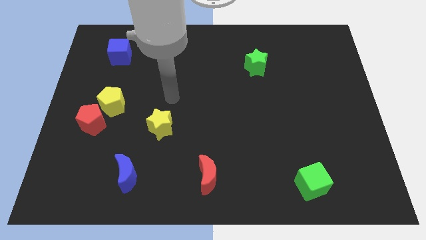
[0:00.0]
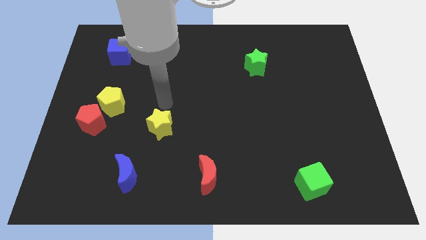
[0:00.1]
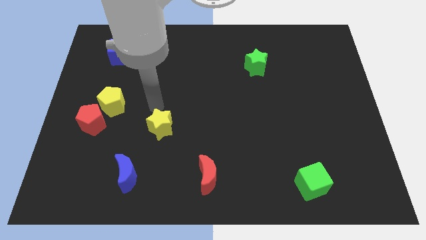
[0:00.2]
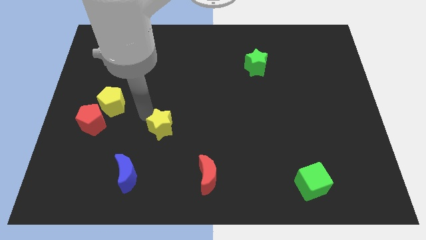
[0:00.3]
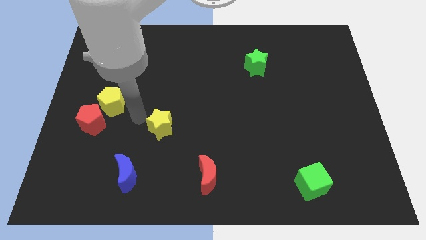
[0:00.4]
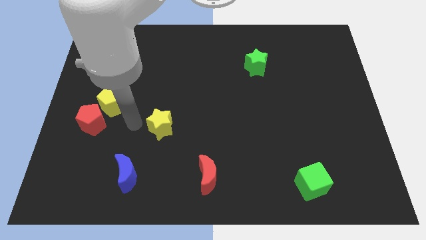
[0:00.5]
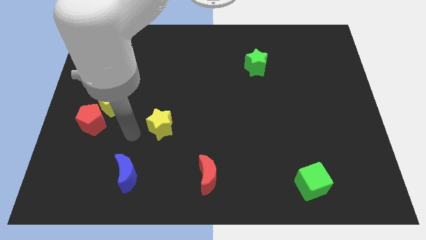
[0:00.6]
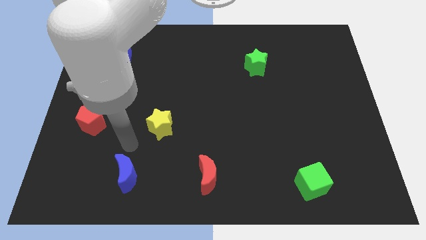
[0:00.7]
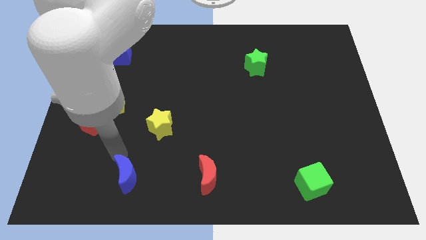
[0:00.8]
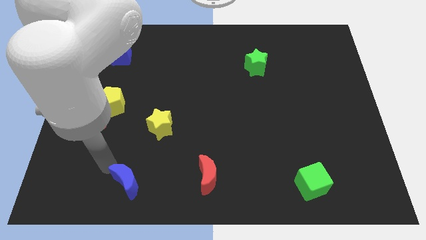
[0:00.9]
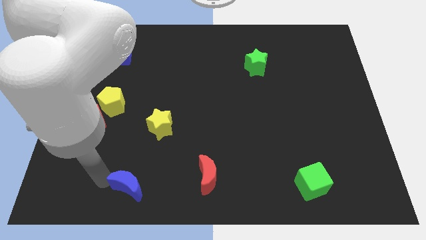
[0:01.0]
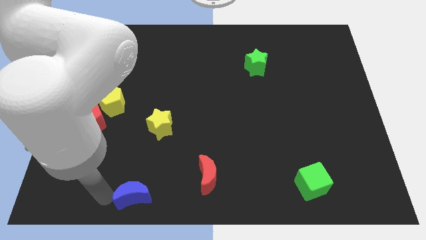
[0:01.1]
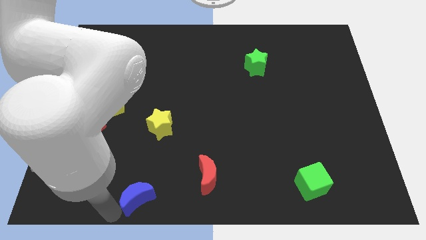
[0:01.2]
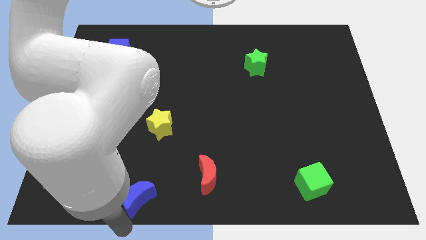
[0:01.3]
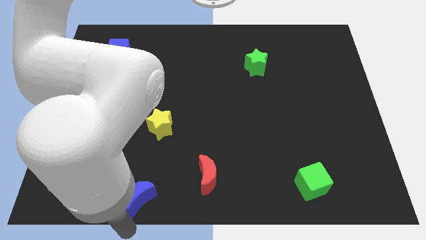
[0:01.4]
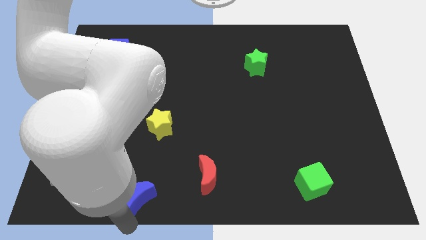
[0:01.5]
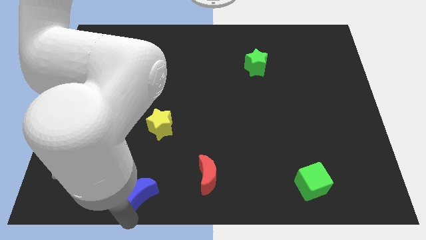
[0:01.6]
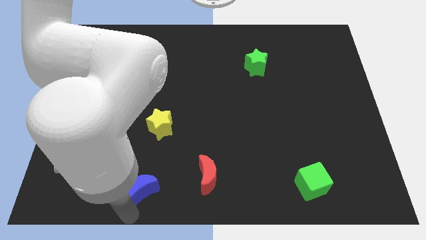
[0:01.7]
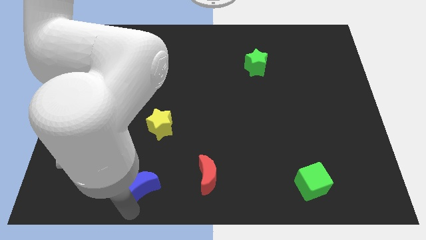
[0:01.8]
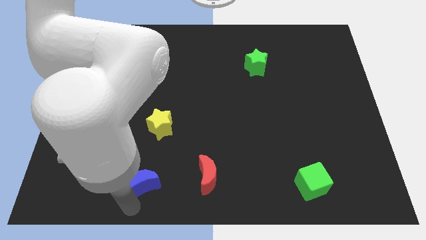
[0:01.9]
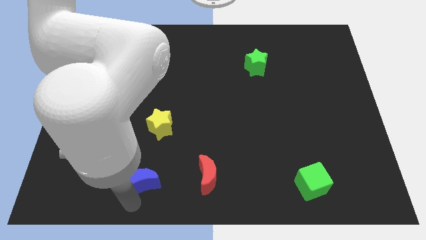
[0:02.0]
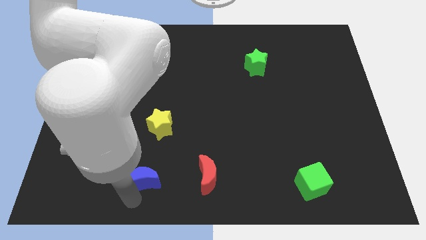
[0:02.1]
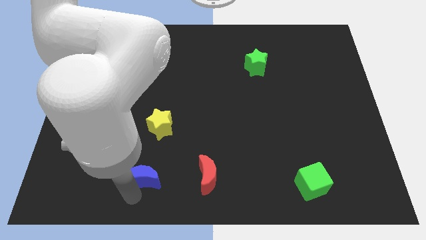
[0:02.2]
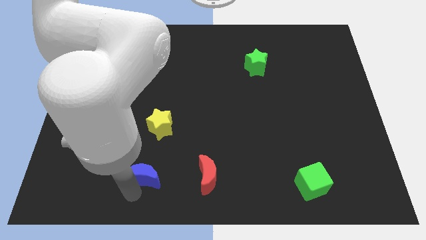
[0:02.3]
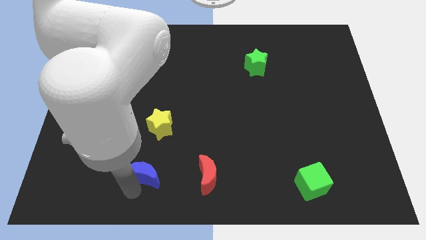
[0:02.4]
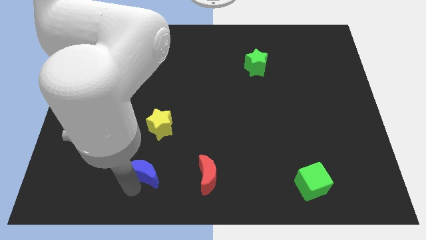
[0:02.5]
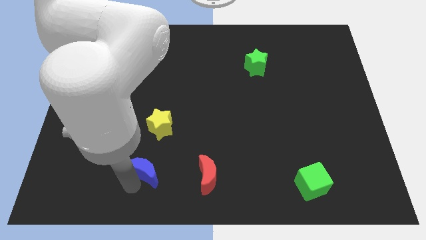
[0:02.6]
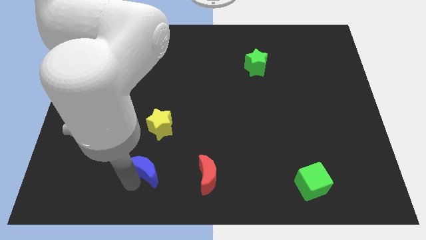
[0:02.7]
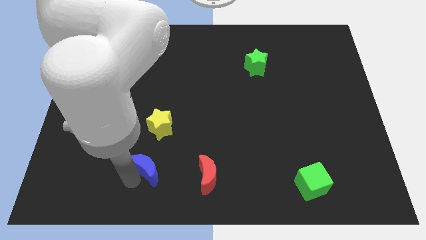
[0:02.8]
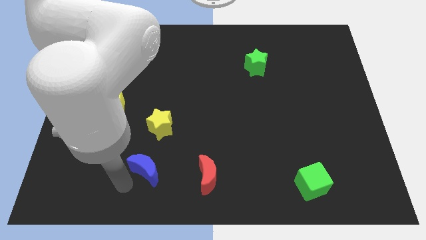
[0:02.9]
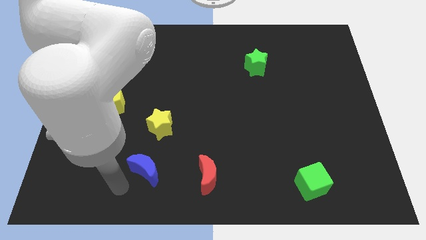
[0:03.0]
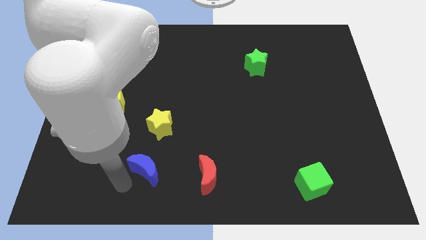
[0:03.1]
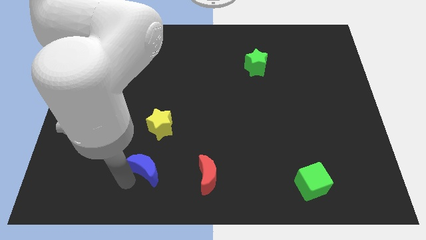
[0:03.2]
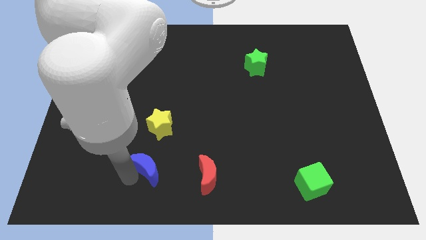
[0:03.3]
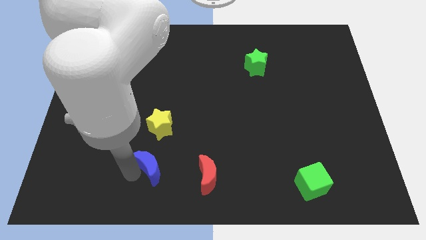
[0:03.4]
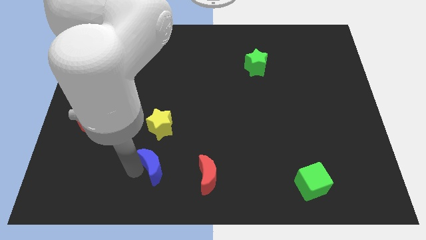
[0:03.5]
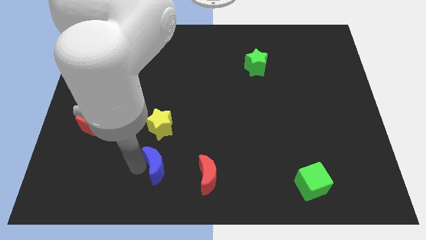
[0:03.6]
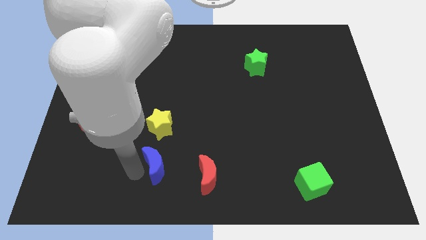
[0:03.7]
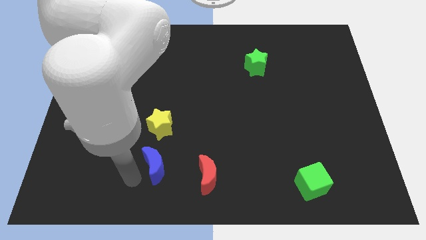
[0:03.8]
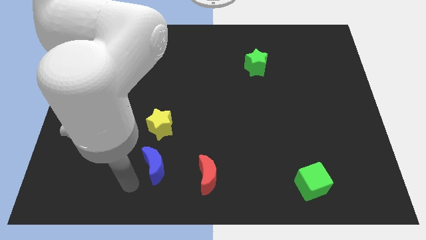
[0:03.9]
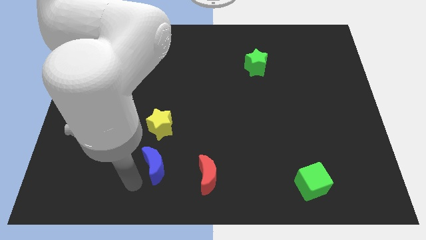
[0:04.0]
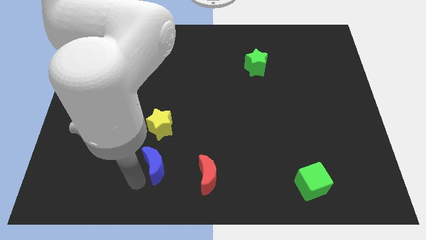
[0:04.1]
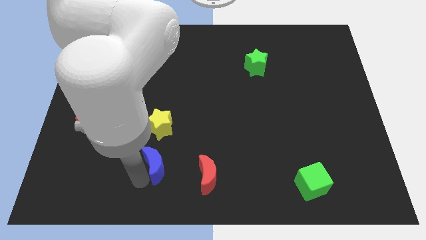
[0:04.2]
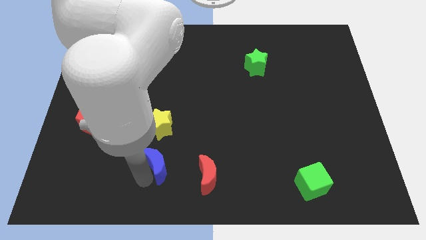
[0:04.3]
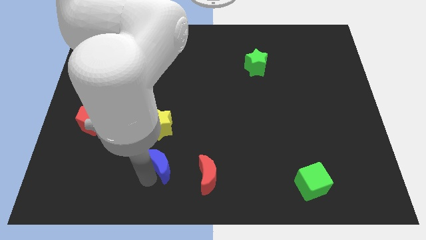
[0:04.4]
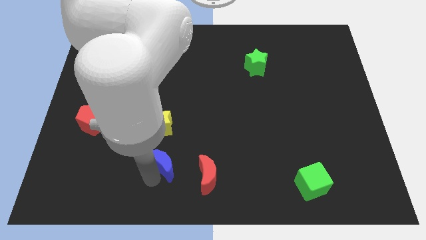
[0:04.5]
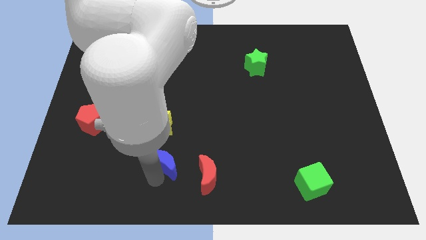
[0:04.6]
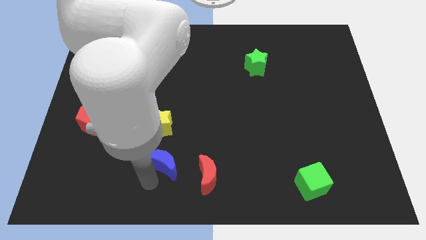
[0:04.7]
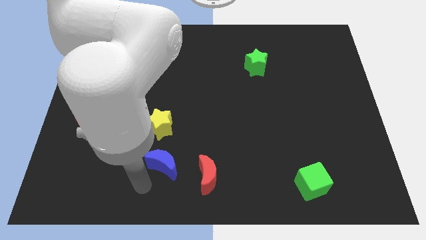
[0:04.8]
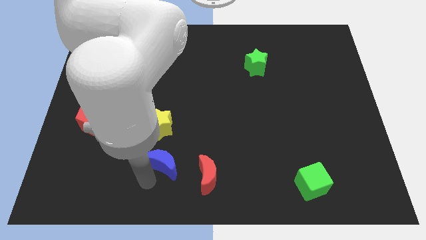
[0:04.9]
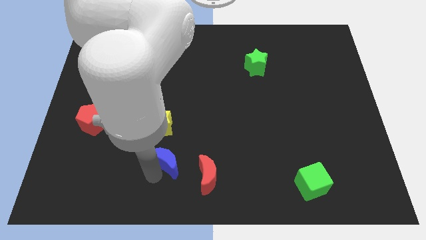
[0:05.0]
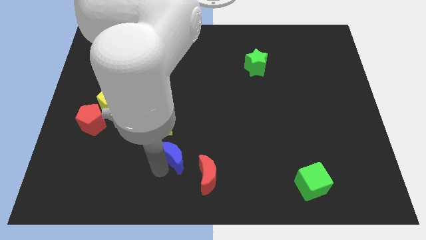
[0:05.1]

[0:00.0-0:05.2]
move the blue moon to the bottom right of the yellow star

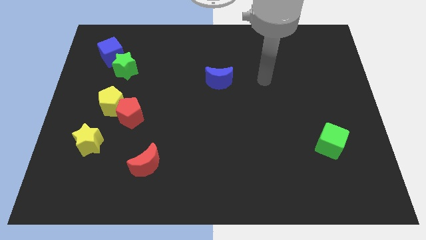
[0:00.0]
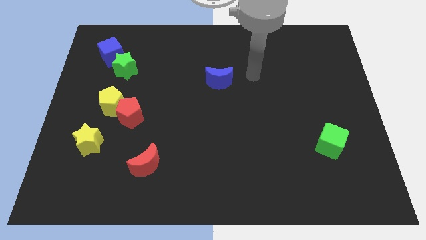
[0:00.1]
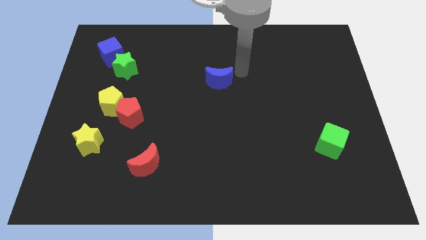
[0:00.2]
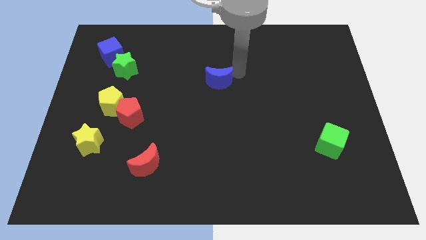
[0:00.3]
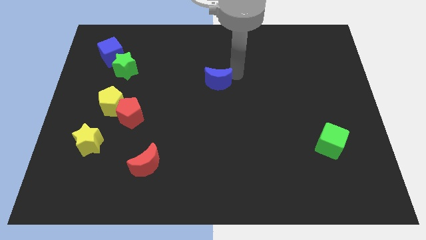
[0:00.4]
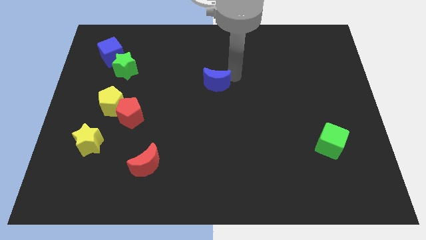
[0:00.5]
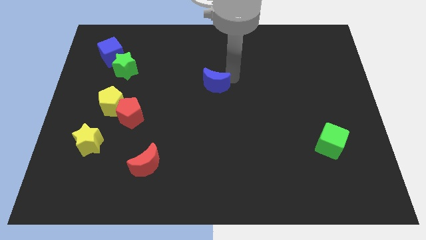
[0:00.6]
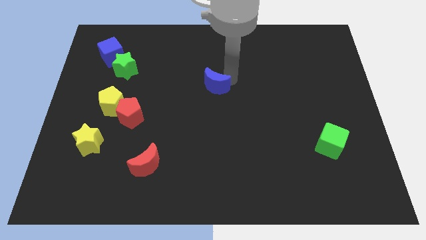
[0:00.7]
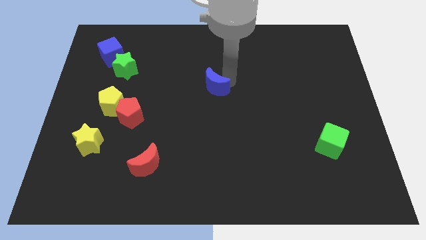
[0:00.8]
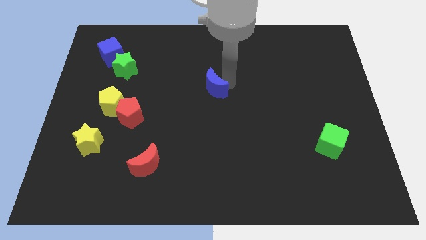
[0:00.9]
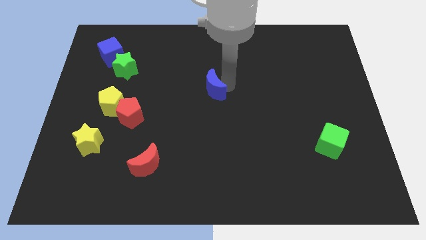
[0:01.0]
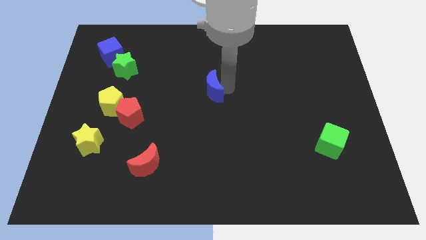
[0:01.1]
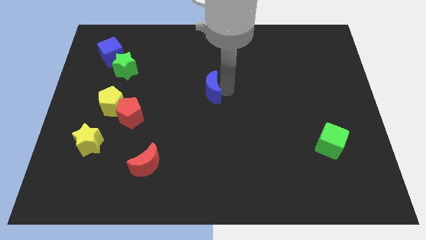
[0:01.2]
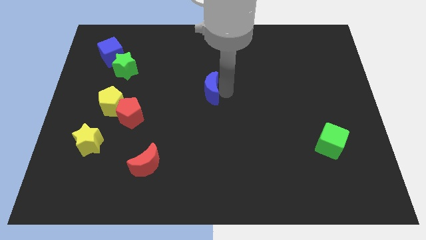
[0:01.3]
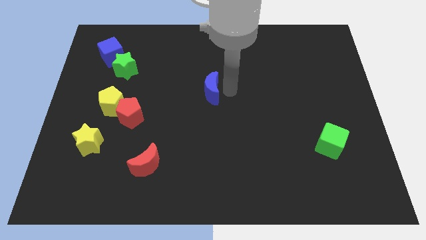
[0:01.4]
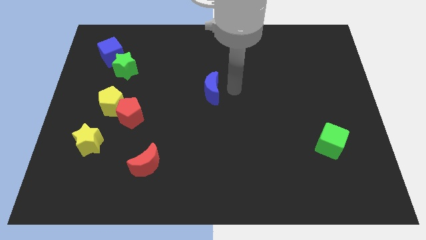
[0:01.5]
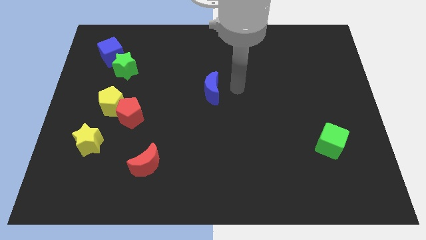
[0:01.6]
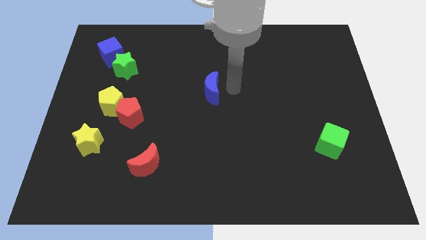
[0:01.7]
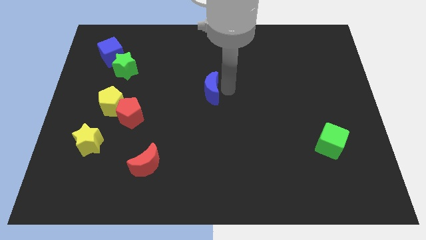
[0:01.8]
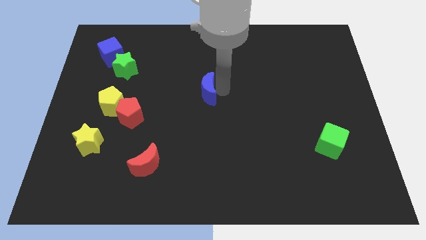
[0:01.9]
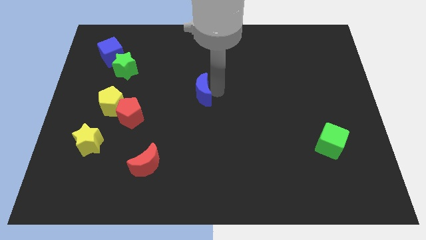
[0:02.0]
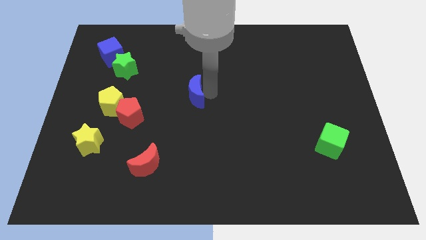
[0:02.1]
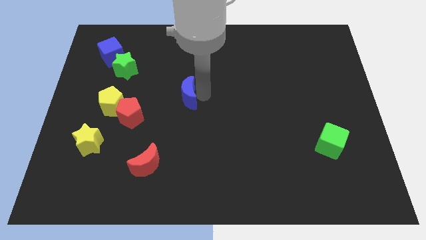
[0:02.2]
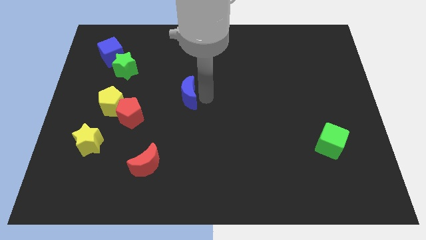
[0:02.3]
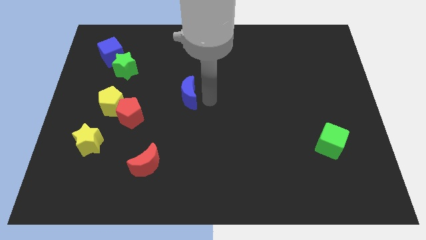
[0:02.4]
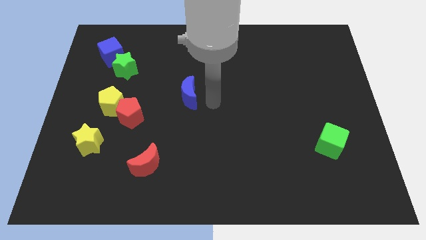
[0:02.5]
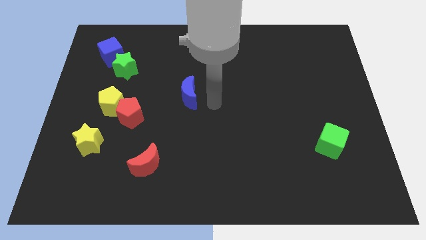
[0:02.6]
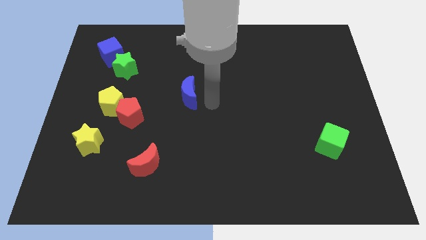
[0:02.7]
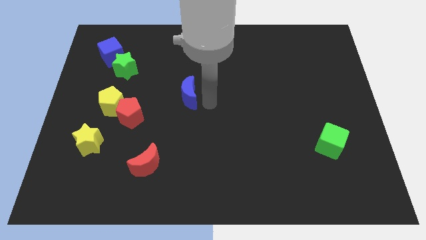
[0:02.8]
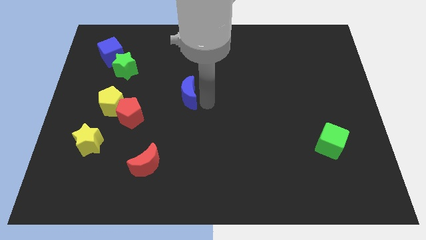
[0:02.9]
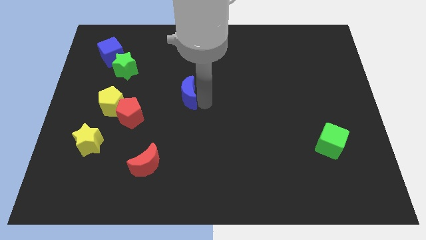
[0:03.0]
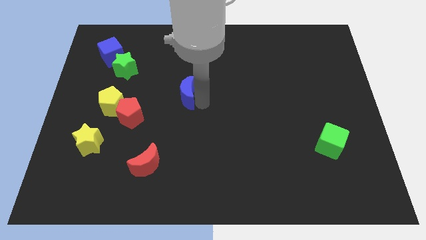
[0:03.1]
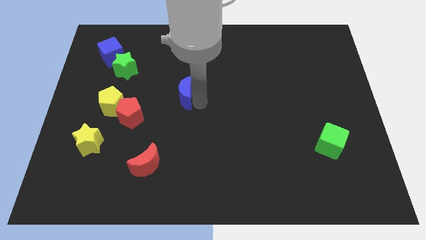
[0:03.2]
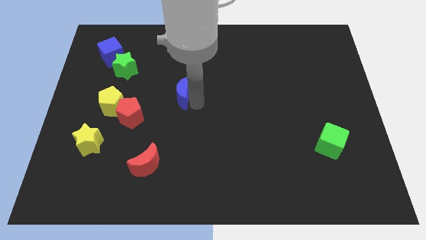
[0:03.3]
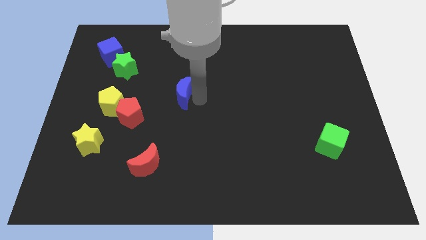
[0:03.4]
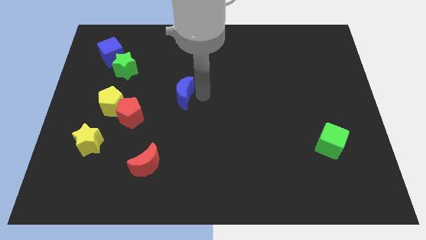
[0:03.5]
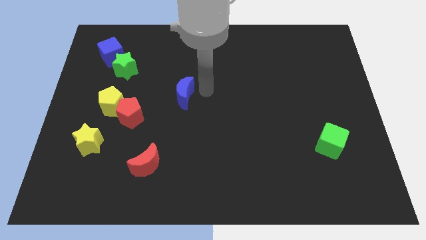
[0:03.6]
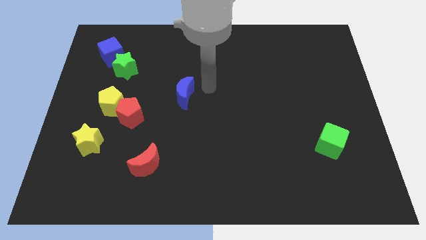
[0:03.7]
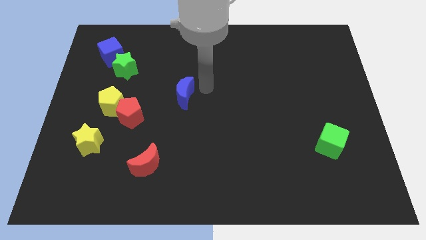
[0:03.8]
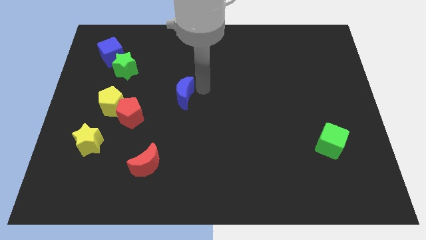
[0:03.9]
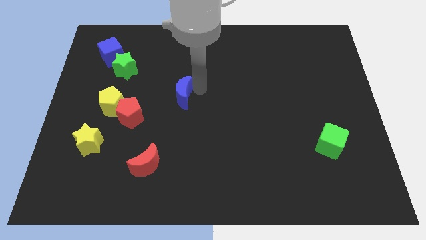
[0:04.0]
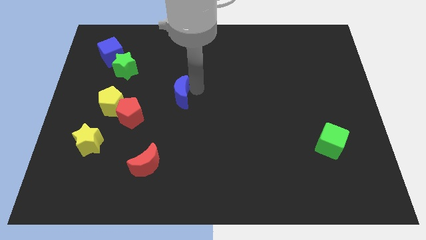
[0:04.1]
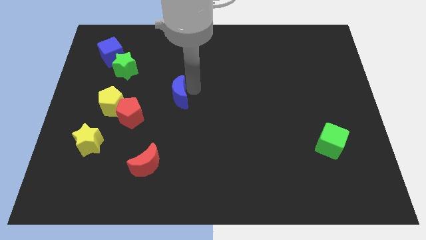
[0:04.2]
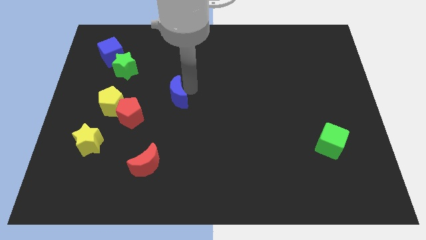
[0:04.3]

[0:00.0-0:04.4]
put the blue moon to the right of the yellow pentagon
